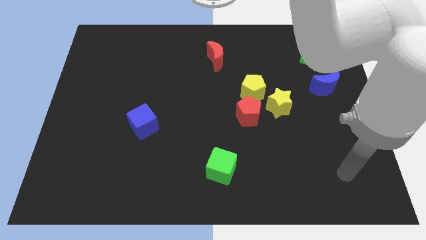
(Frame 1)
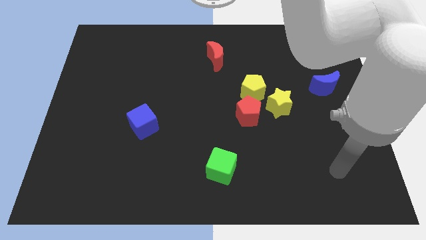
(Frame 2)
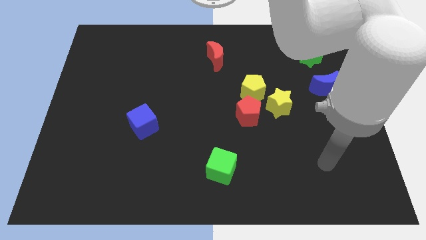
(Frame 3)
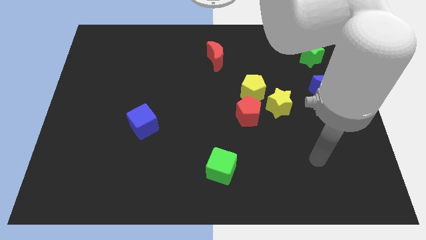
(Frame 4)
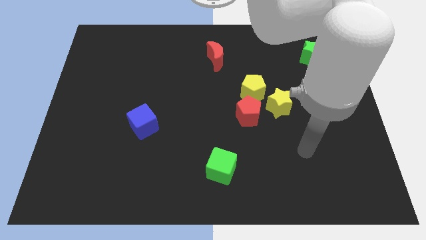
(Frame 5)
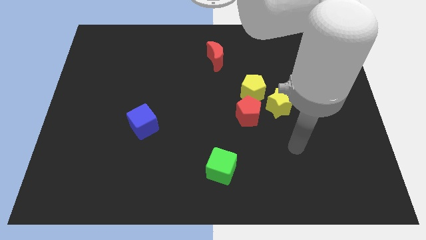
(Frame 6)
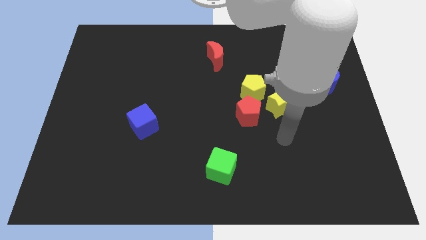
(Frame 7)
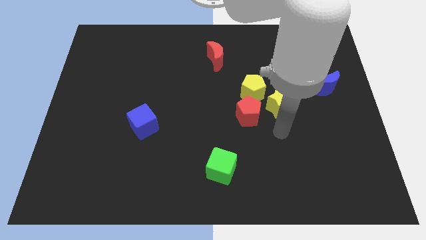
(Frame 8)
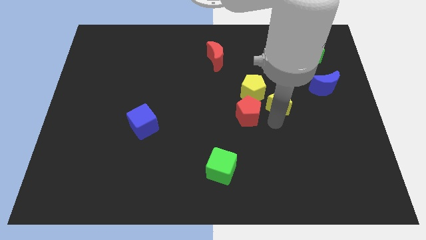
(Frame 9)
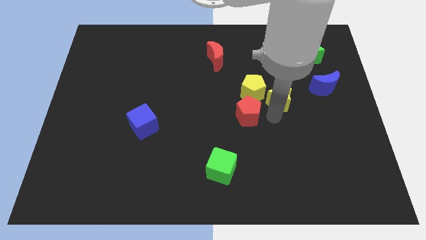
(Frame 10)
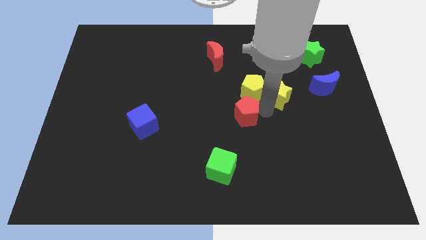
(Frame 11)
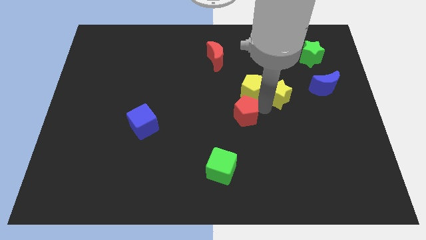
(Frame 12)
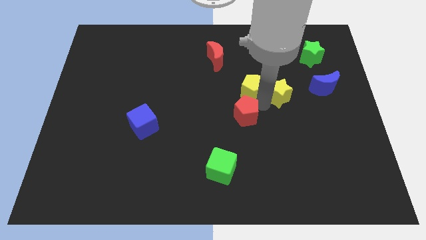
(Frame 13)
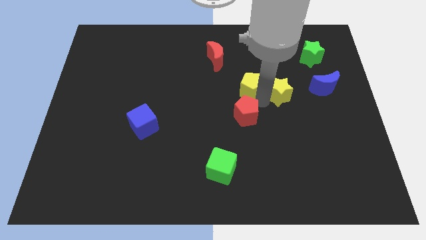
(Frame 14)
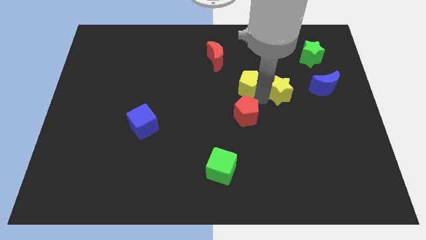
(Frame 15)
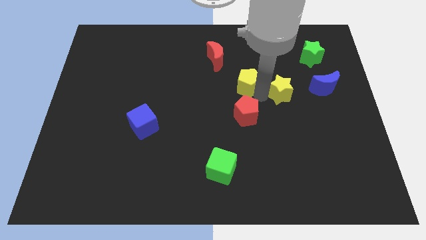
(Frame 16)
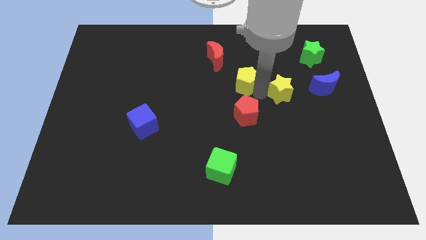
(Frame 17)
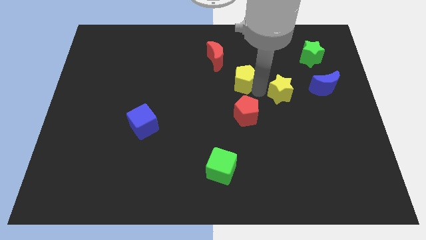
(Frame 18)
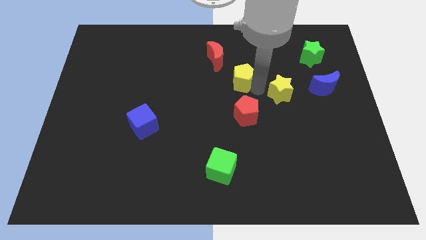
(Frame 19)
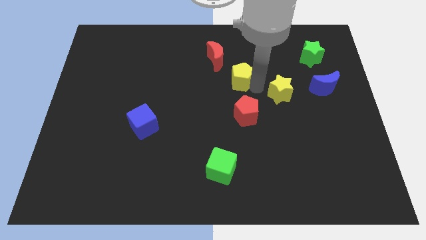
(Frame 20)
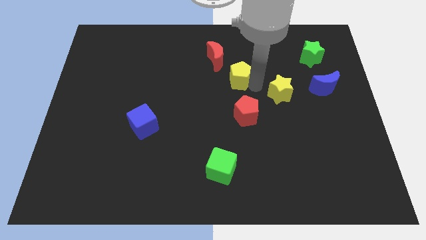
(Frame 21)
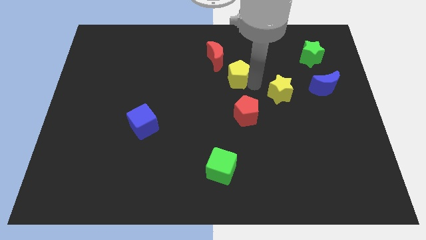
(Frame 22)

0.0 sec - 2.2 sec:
separate the yellow pentagon from the yellow star and red pentagon

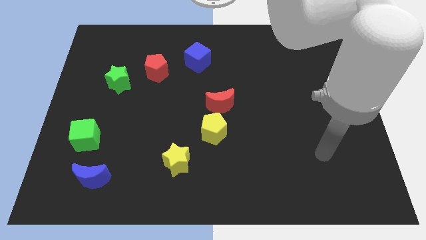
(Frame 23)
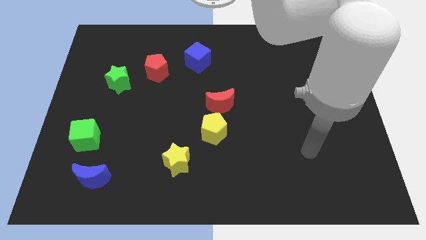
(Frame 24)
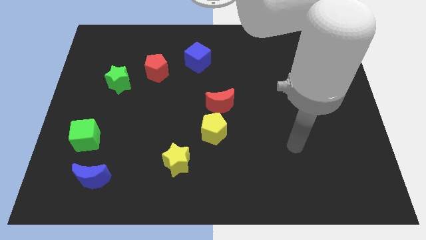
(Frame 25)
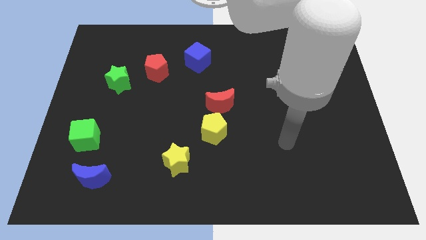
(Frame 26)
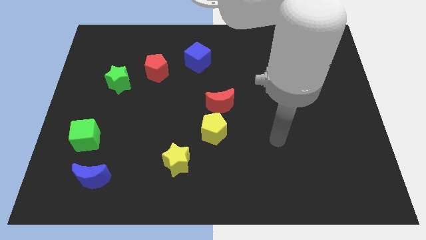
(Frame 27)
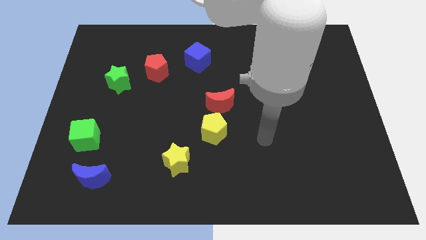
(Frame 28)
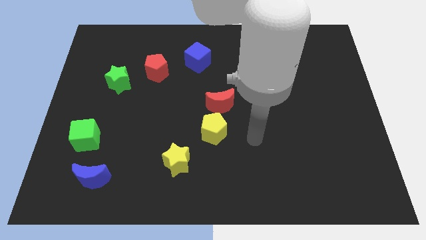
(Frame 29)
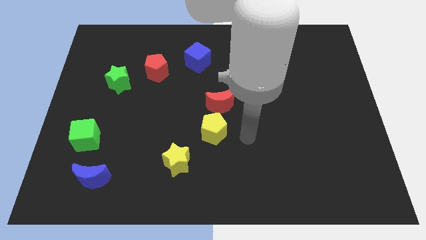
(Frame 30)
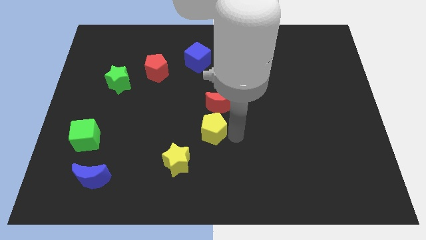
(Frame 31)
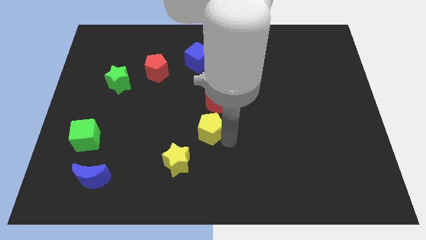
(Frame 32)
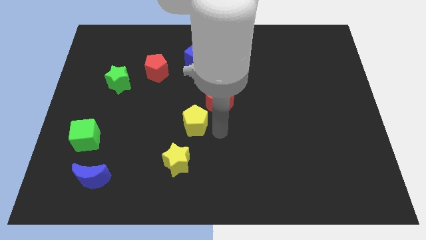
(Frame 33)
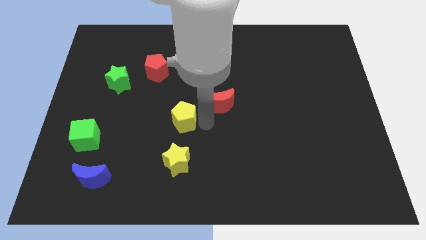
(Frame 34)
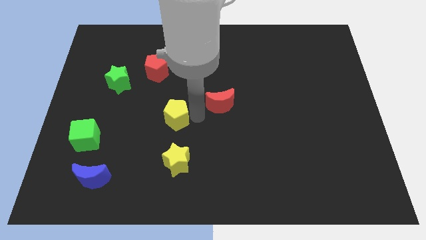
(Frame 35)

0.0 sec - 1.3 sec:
pull the red moon apart from the yellow pentagon

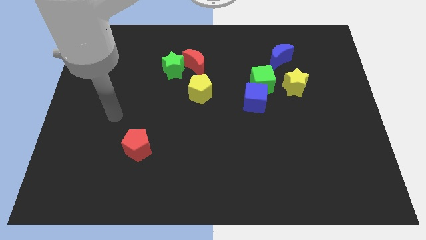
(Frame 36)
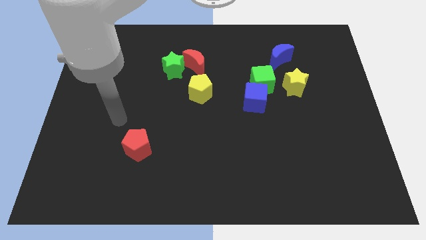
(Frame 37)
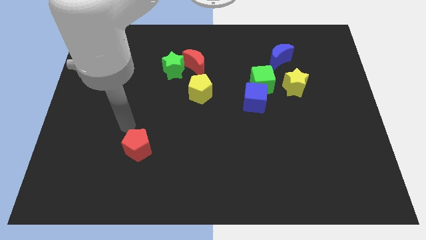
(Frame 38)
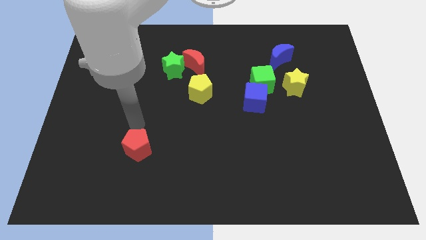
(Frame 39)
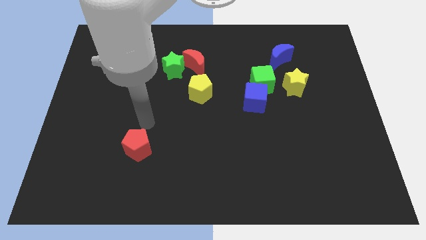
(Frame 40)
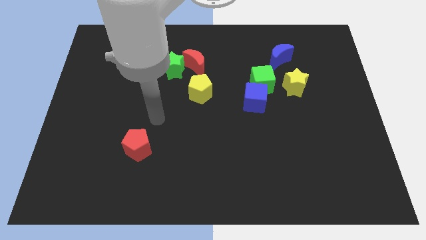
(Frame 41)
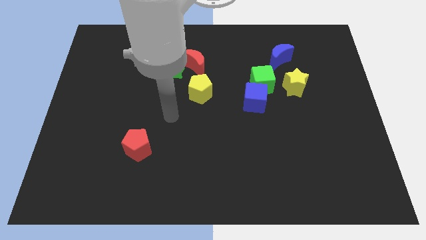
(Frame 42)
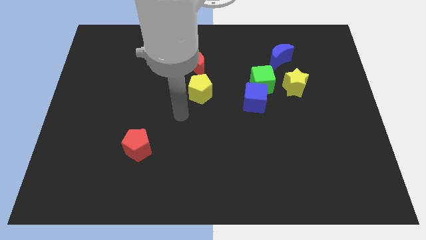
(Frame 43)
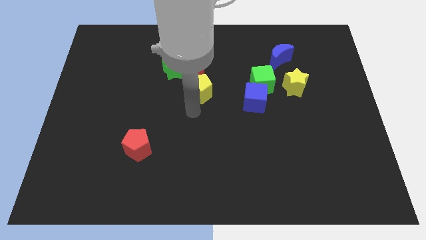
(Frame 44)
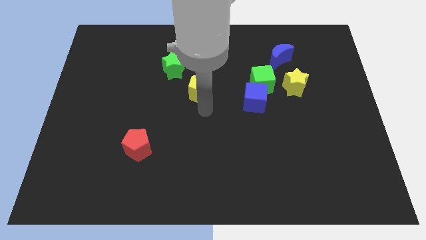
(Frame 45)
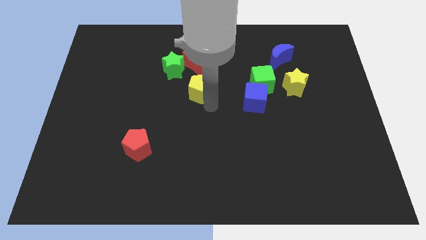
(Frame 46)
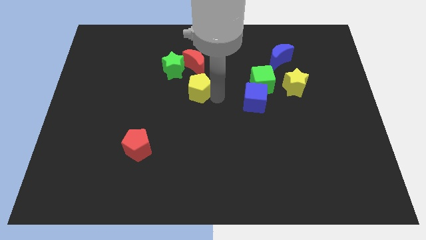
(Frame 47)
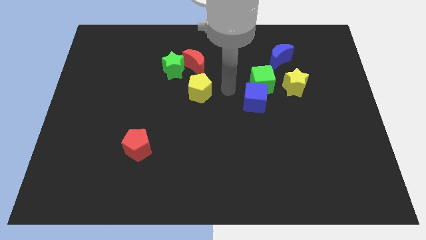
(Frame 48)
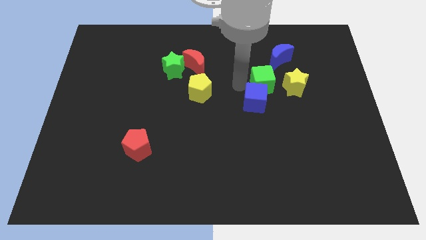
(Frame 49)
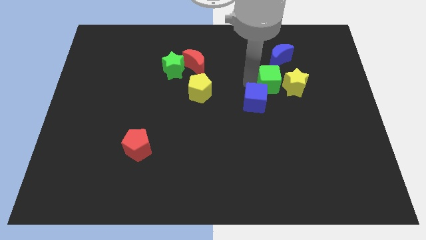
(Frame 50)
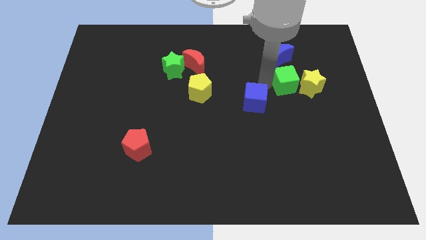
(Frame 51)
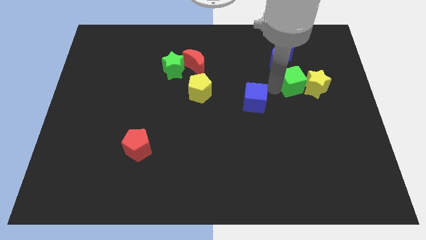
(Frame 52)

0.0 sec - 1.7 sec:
pull the blue cube apart from the green cube

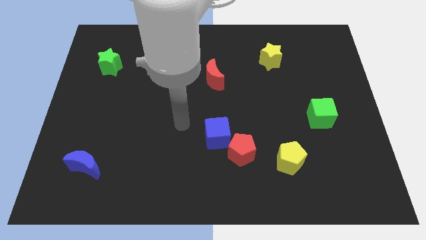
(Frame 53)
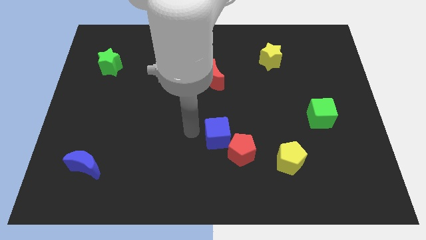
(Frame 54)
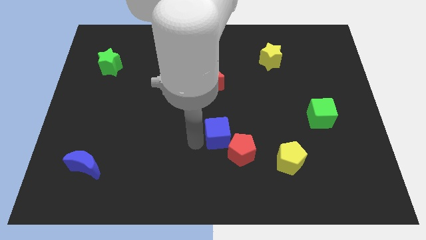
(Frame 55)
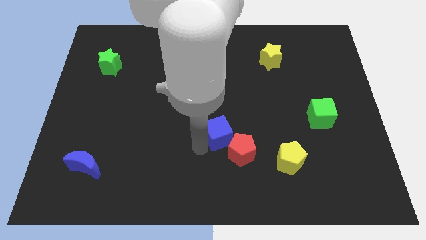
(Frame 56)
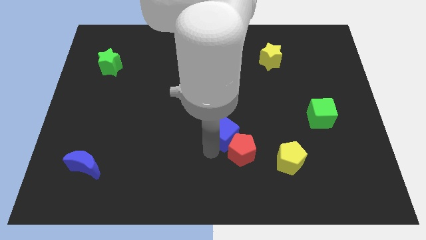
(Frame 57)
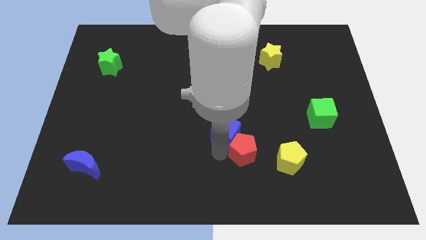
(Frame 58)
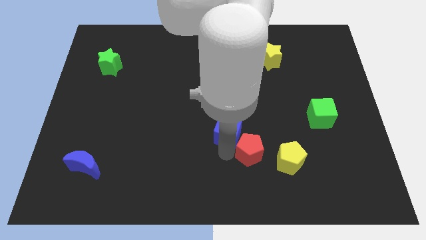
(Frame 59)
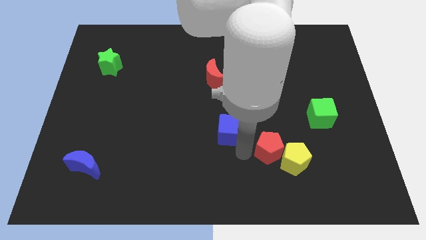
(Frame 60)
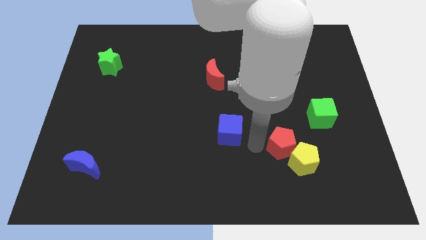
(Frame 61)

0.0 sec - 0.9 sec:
separate the blue cube from the red pentagon

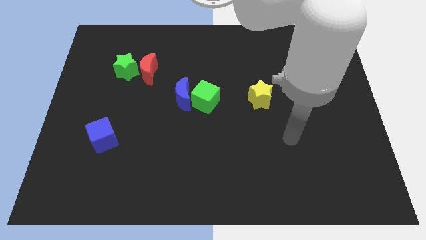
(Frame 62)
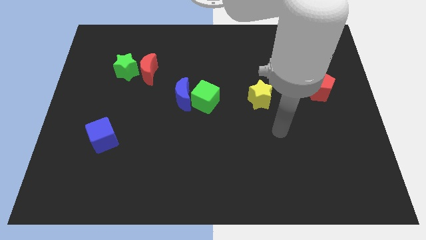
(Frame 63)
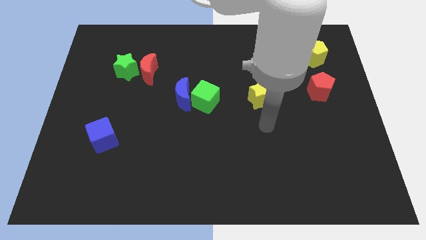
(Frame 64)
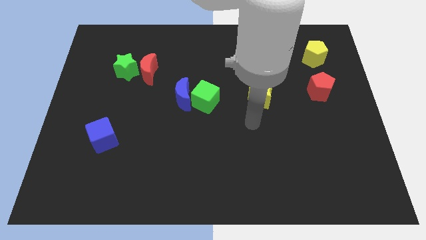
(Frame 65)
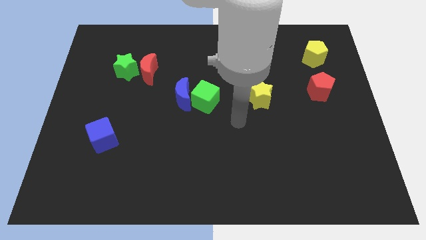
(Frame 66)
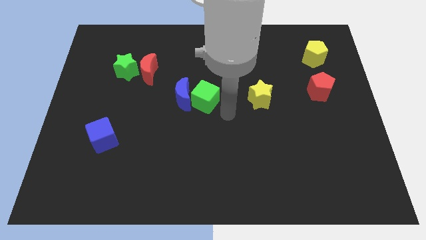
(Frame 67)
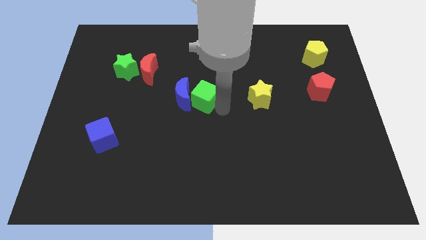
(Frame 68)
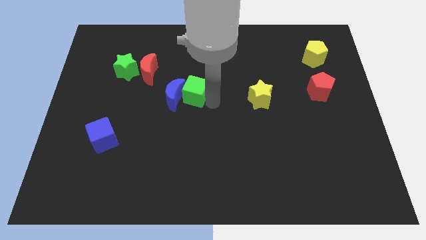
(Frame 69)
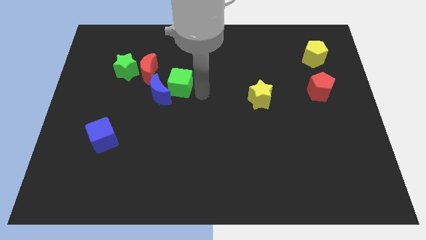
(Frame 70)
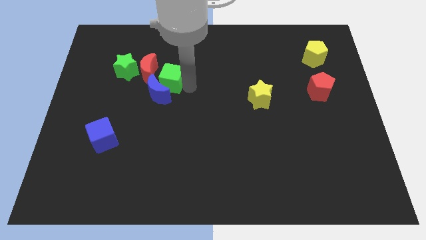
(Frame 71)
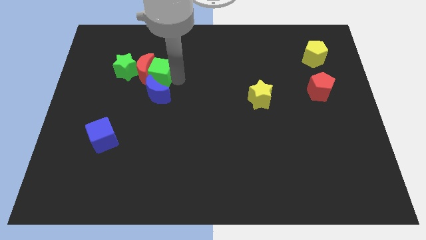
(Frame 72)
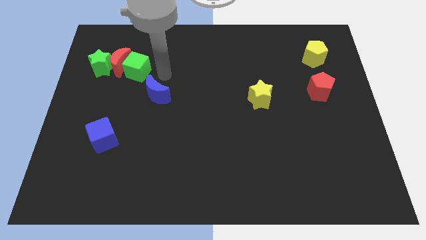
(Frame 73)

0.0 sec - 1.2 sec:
separate the blue moon from the green cube

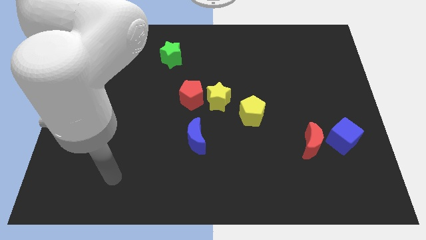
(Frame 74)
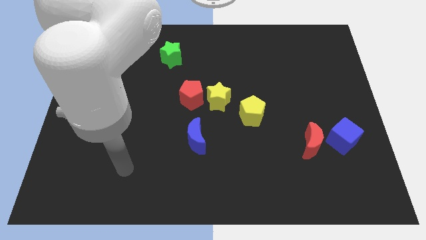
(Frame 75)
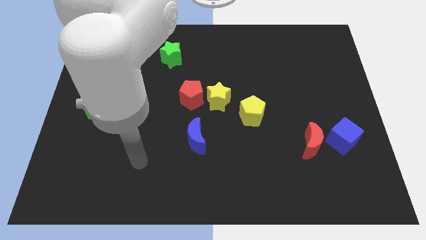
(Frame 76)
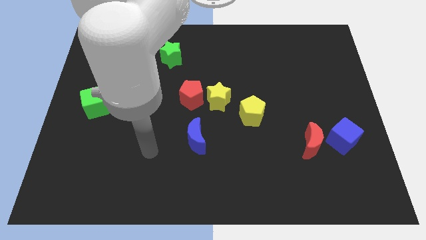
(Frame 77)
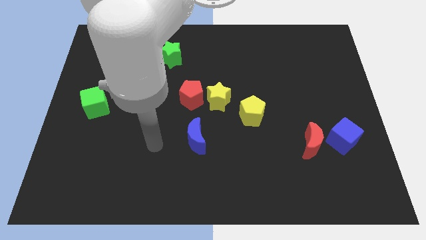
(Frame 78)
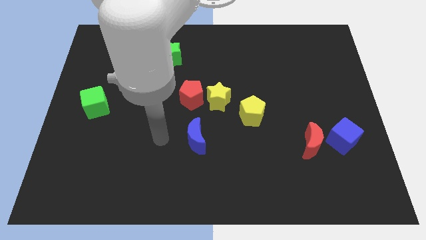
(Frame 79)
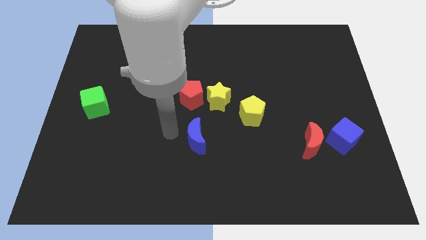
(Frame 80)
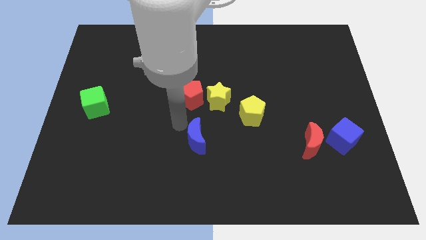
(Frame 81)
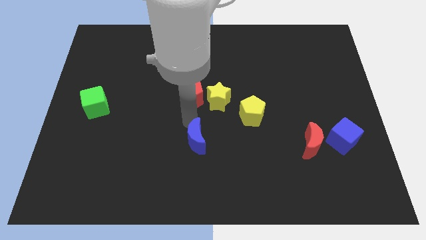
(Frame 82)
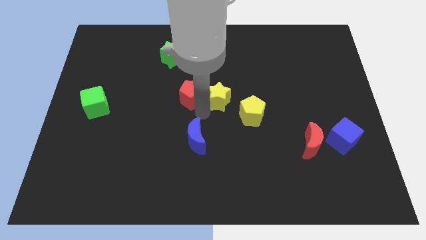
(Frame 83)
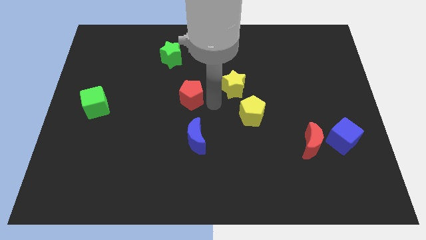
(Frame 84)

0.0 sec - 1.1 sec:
separate the red pentagon from the yellow star

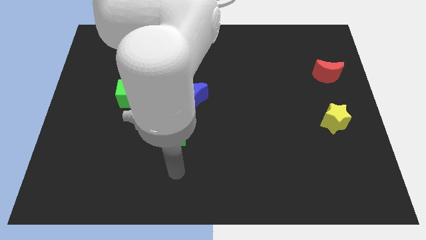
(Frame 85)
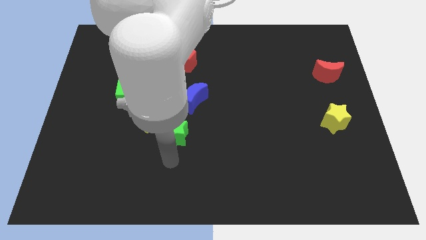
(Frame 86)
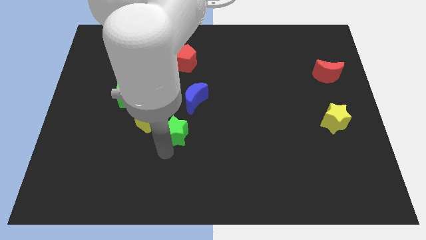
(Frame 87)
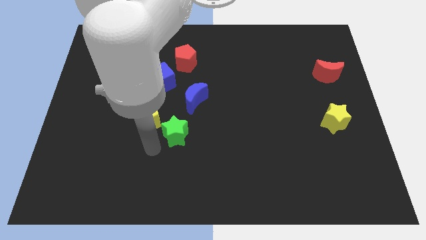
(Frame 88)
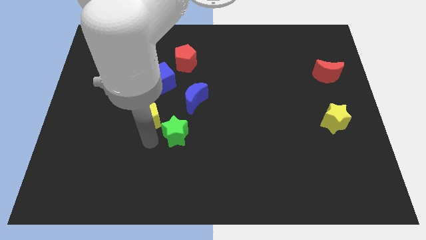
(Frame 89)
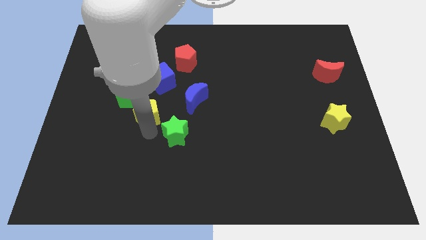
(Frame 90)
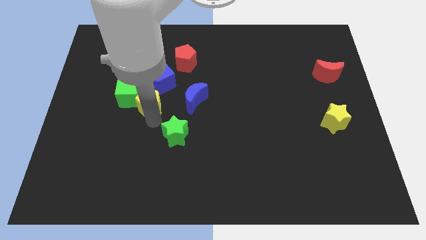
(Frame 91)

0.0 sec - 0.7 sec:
pull the green star apart from the yellow pentagon
